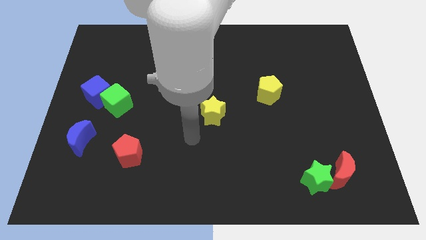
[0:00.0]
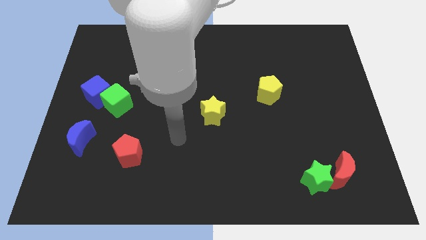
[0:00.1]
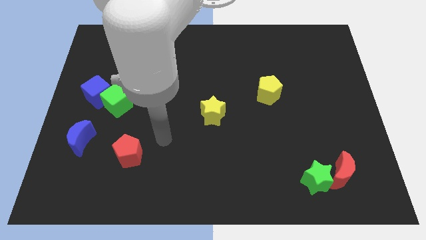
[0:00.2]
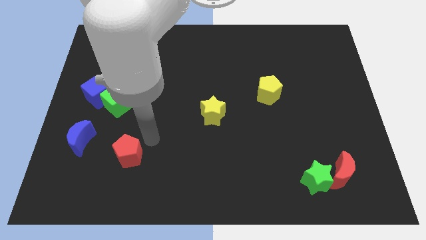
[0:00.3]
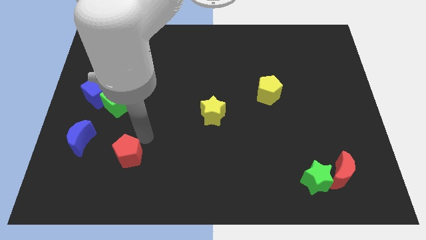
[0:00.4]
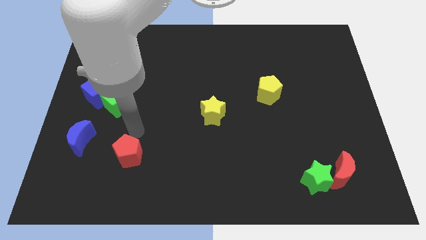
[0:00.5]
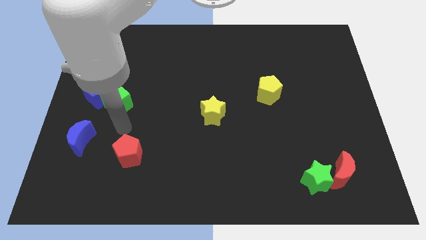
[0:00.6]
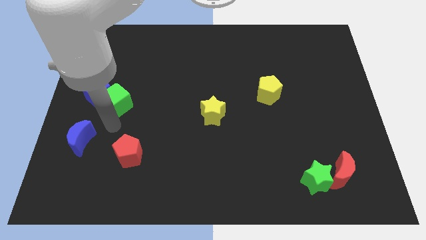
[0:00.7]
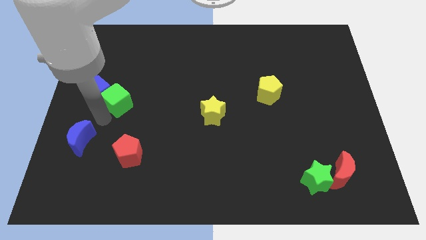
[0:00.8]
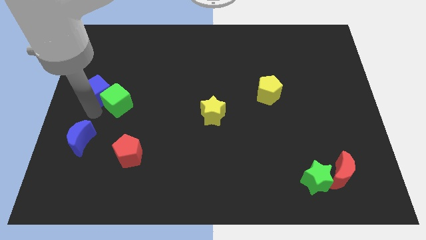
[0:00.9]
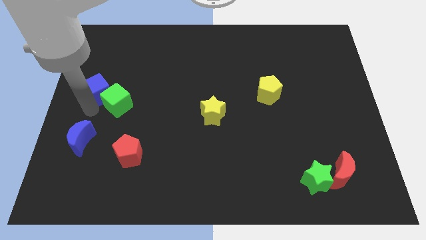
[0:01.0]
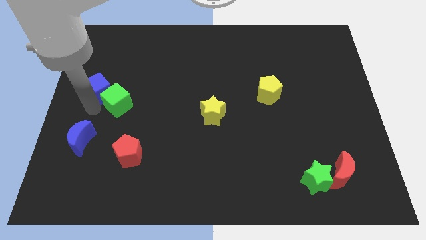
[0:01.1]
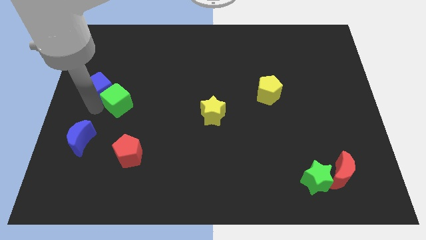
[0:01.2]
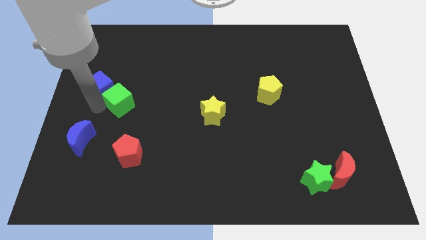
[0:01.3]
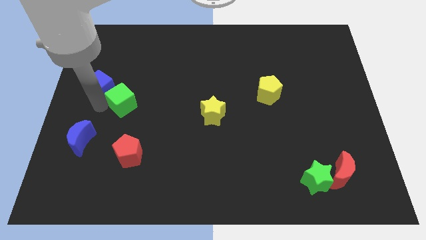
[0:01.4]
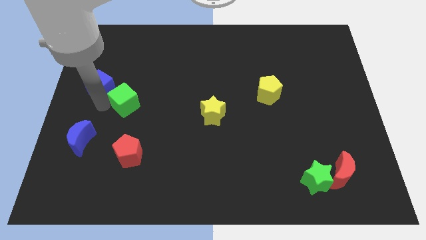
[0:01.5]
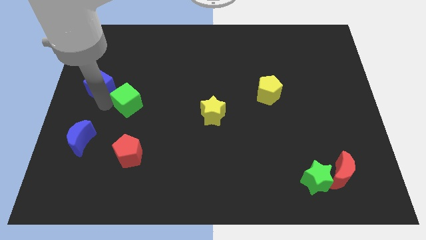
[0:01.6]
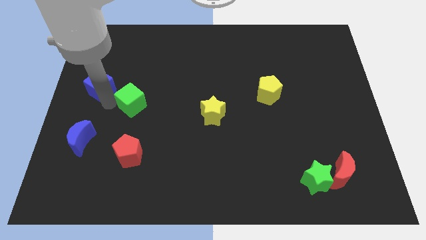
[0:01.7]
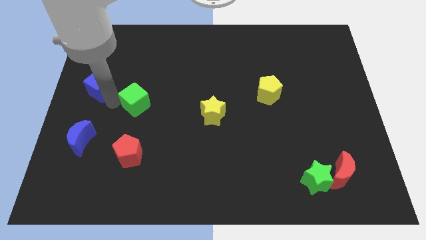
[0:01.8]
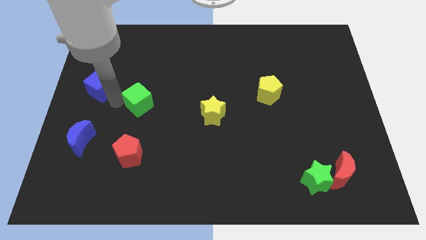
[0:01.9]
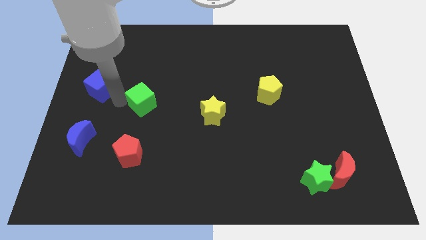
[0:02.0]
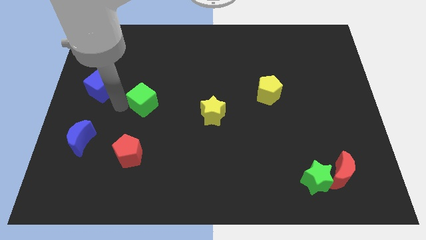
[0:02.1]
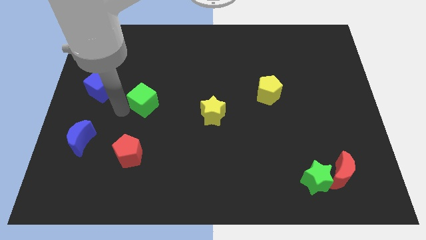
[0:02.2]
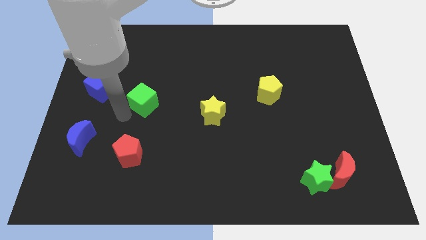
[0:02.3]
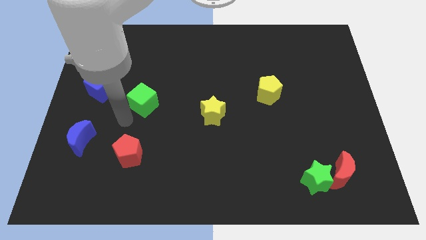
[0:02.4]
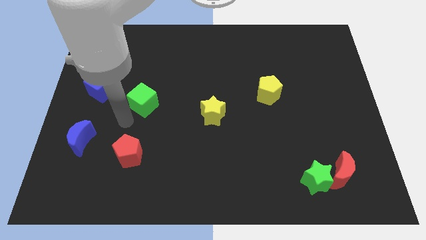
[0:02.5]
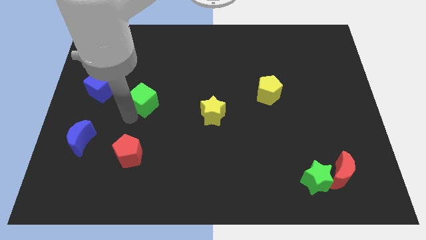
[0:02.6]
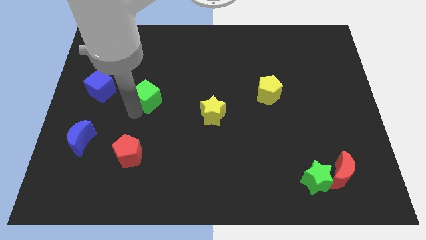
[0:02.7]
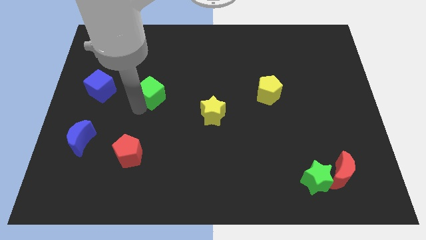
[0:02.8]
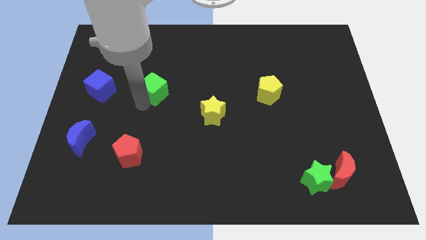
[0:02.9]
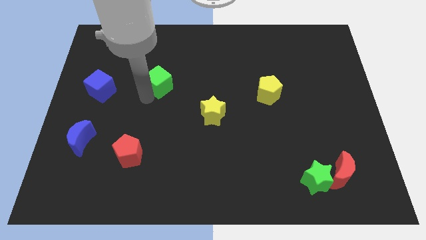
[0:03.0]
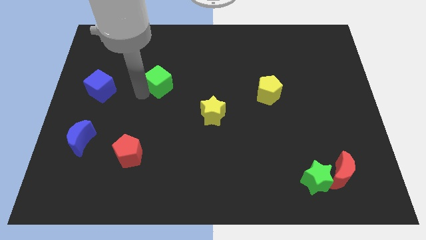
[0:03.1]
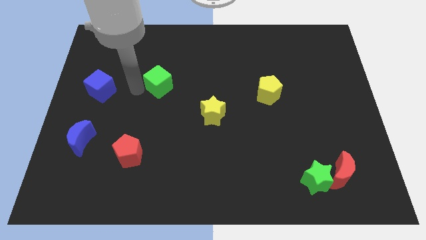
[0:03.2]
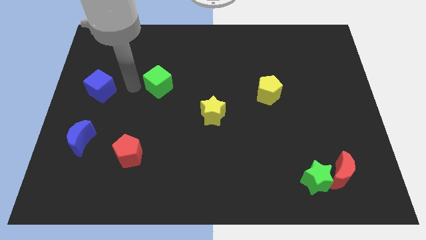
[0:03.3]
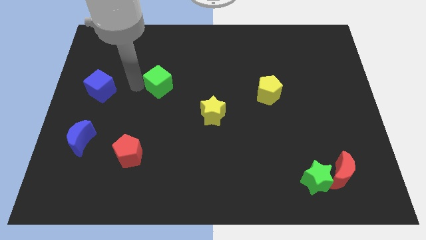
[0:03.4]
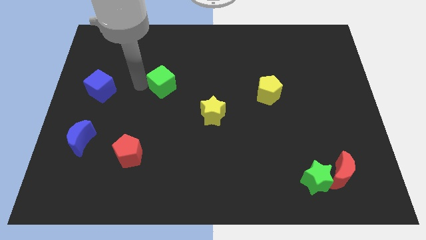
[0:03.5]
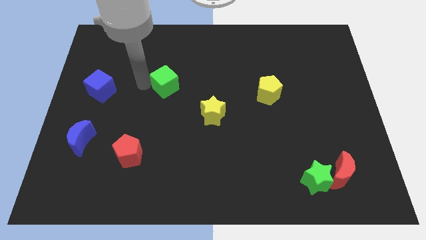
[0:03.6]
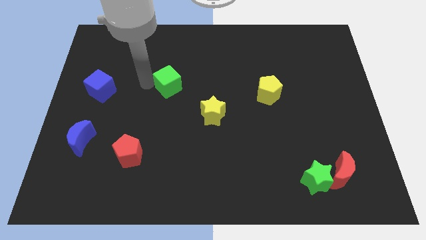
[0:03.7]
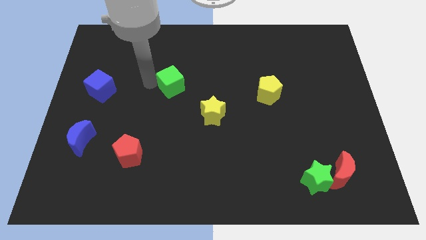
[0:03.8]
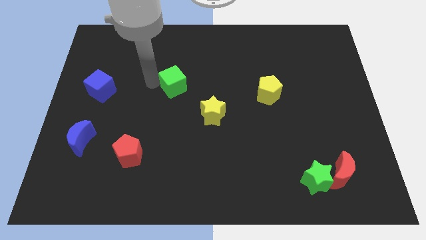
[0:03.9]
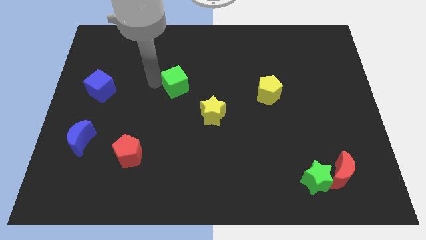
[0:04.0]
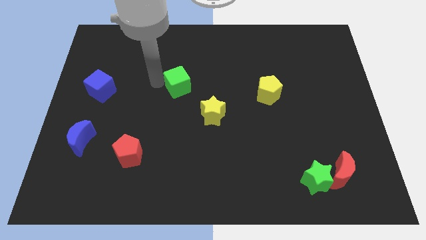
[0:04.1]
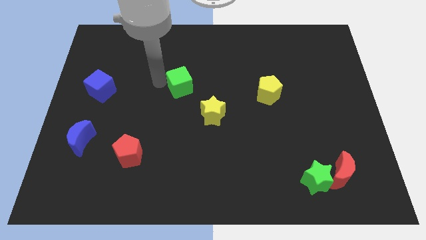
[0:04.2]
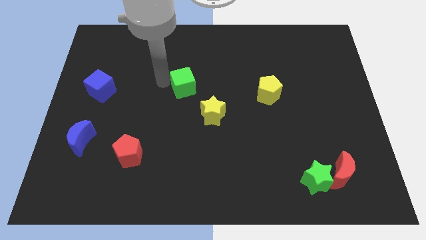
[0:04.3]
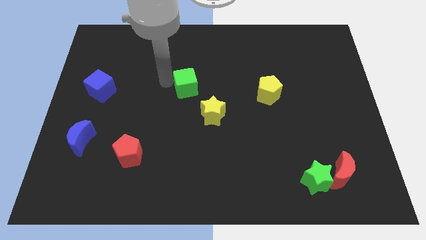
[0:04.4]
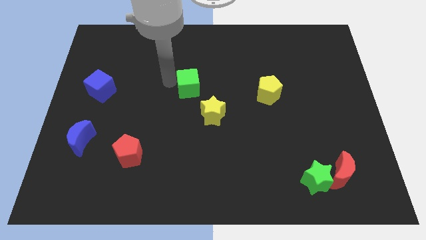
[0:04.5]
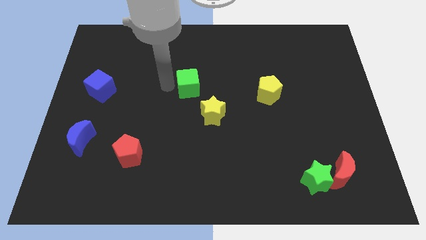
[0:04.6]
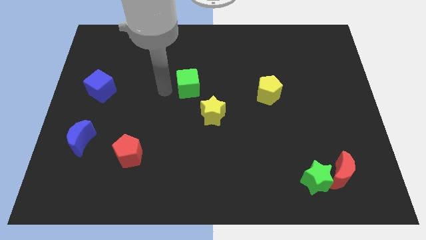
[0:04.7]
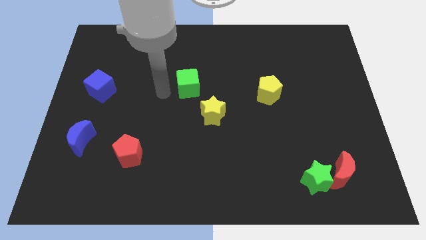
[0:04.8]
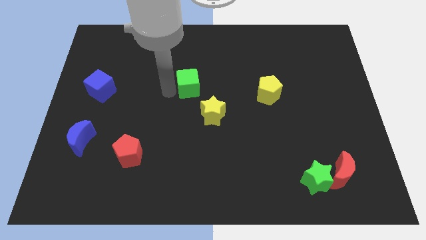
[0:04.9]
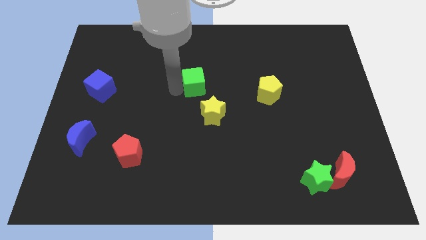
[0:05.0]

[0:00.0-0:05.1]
put the green cube to the top side of the yellow star

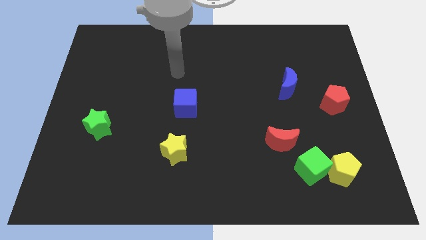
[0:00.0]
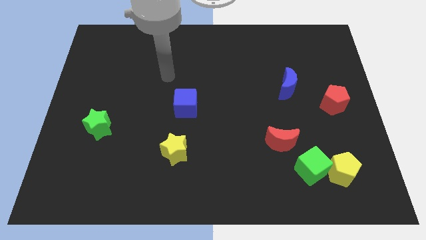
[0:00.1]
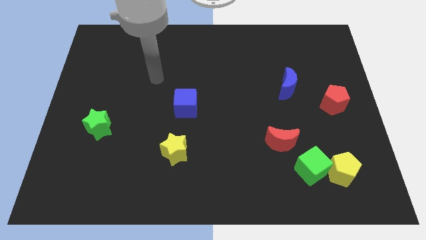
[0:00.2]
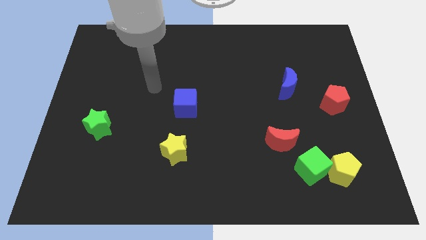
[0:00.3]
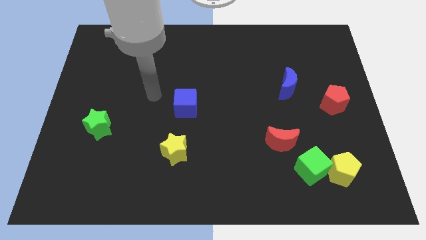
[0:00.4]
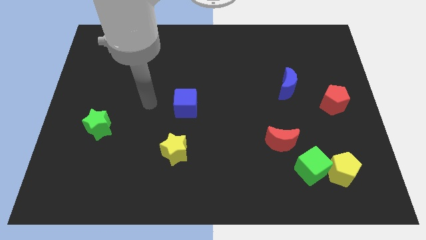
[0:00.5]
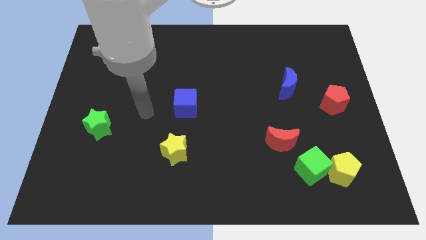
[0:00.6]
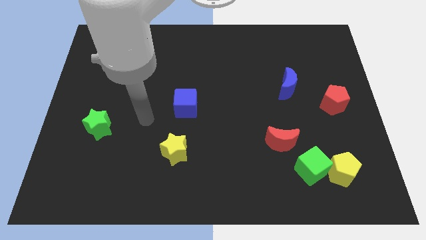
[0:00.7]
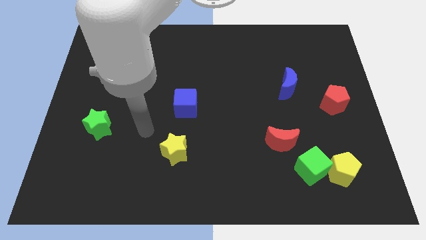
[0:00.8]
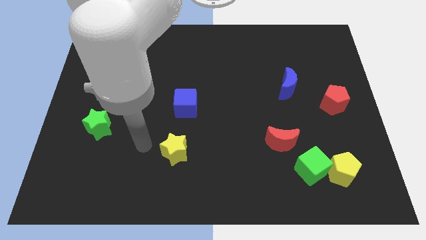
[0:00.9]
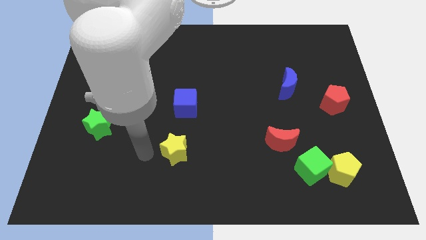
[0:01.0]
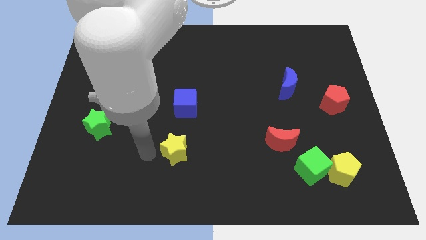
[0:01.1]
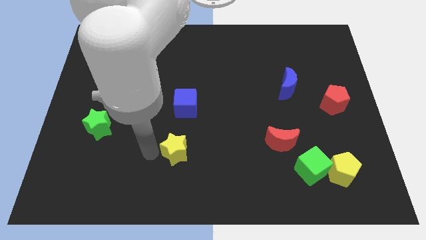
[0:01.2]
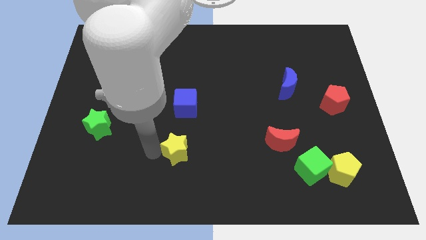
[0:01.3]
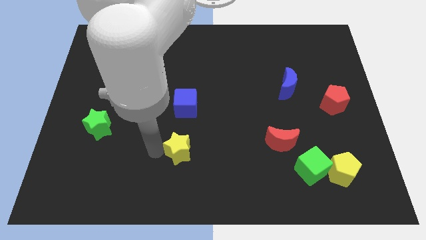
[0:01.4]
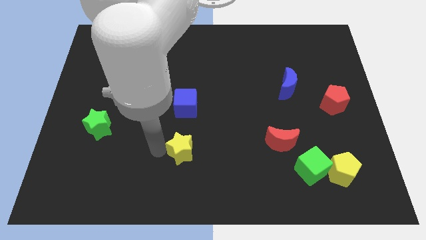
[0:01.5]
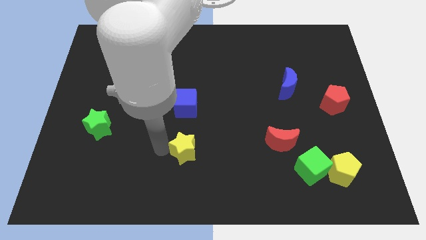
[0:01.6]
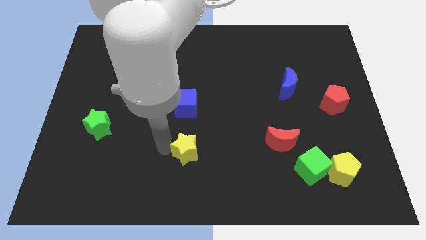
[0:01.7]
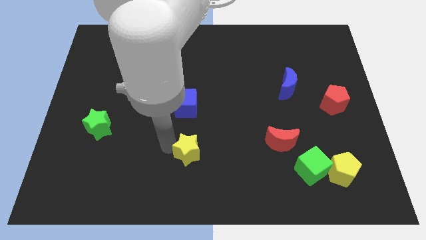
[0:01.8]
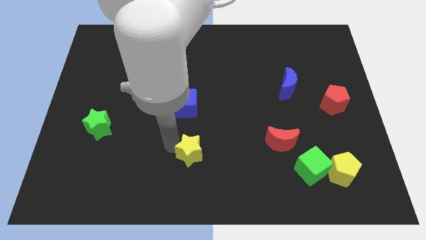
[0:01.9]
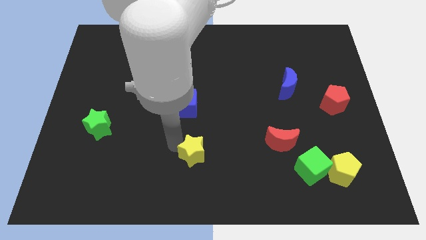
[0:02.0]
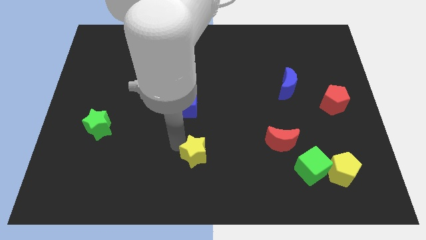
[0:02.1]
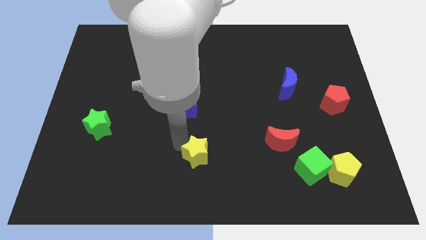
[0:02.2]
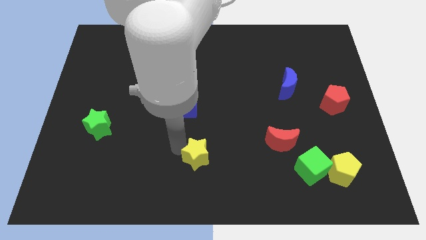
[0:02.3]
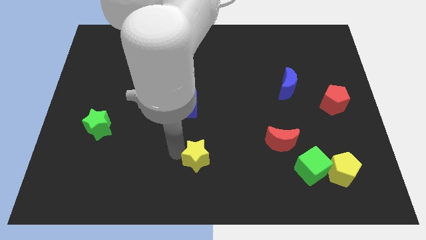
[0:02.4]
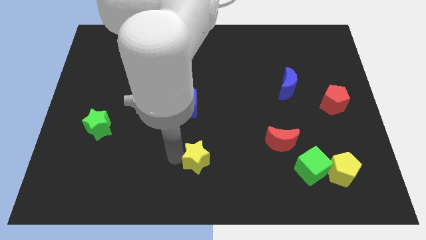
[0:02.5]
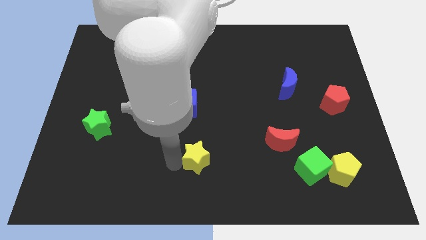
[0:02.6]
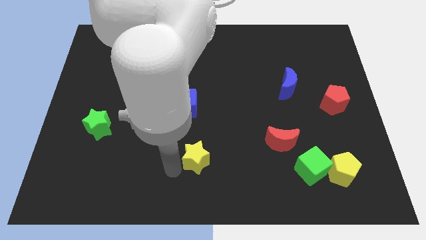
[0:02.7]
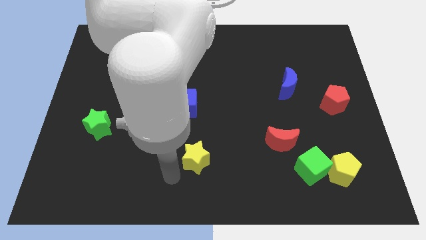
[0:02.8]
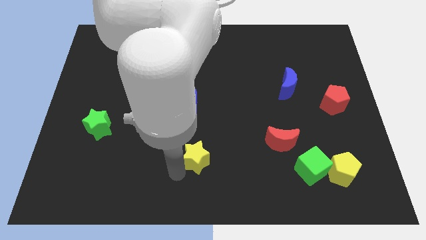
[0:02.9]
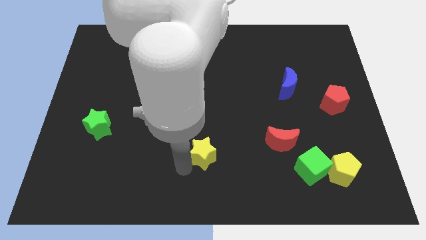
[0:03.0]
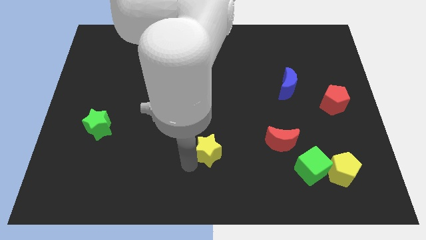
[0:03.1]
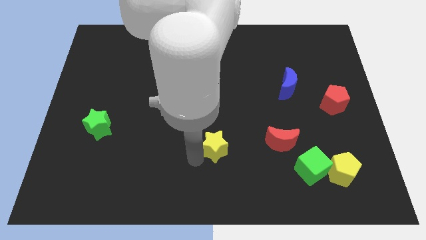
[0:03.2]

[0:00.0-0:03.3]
push the yellow star to the left side of the red moon
